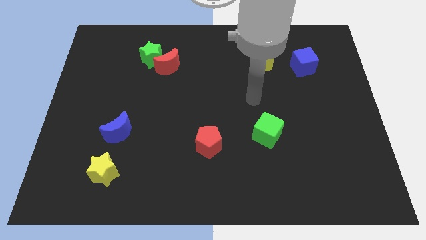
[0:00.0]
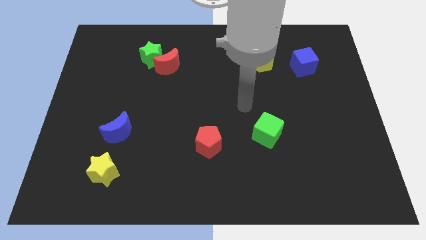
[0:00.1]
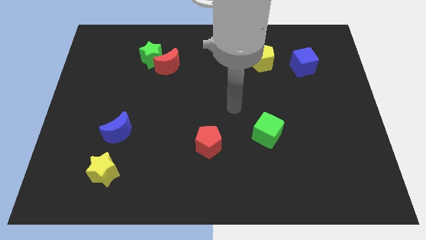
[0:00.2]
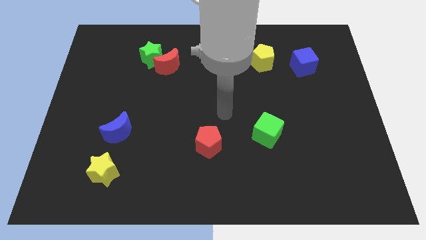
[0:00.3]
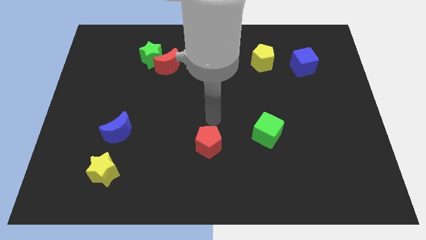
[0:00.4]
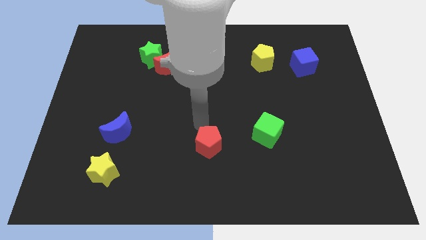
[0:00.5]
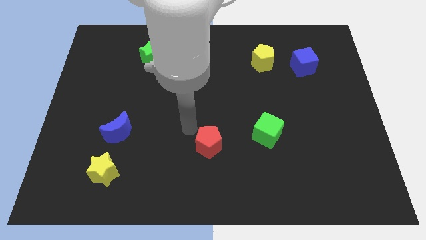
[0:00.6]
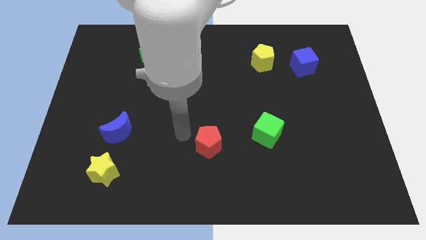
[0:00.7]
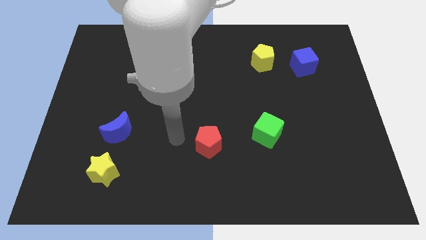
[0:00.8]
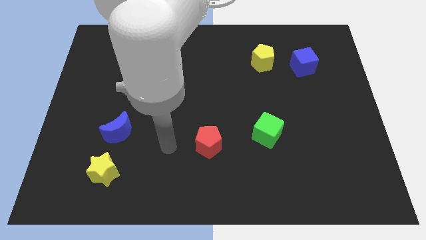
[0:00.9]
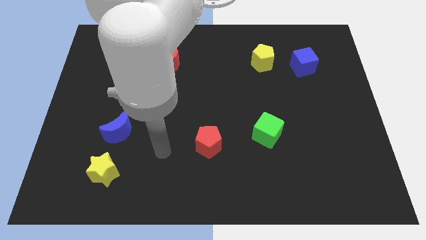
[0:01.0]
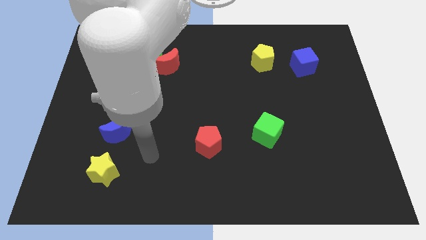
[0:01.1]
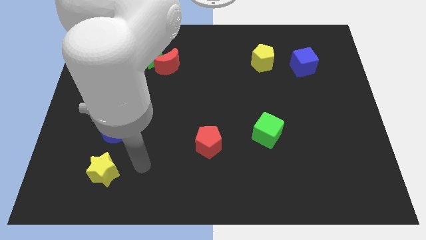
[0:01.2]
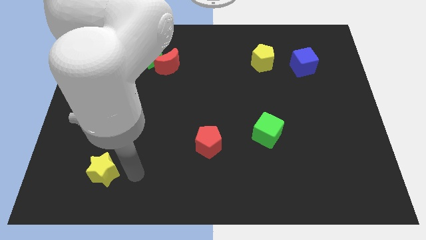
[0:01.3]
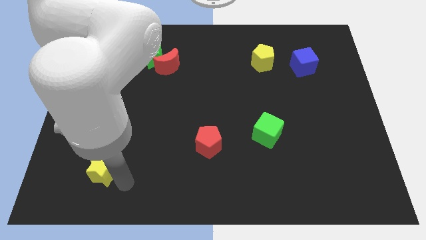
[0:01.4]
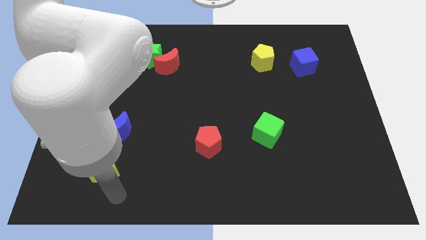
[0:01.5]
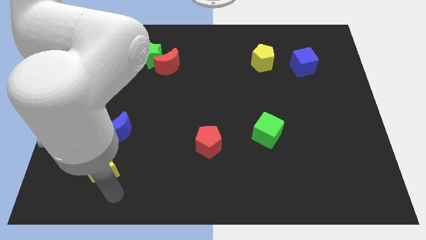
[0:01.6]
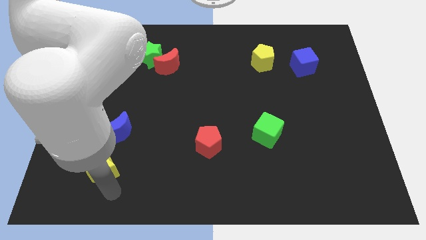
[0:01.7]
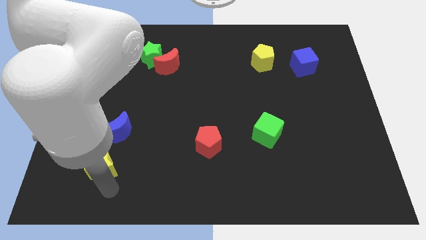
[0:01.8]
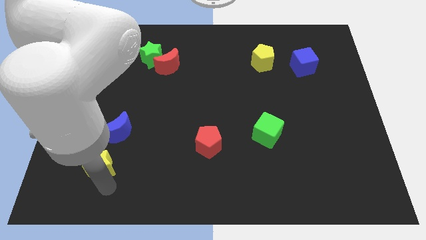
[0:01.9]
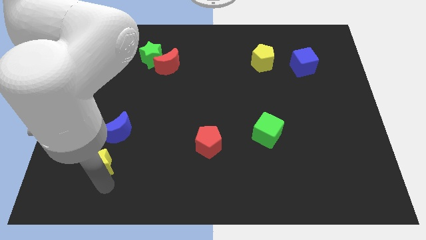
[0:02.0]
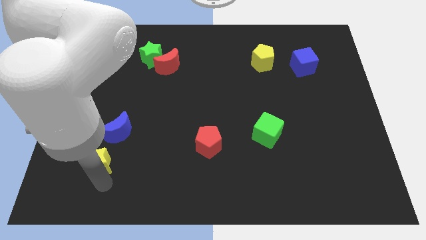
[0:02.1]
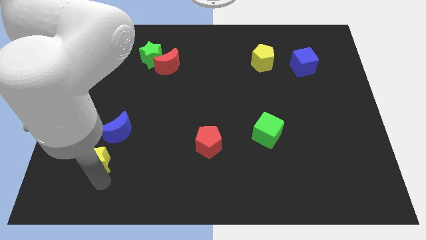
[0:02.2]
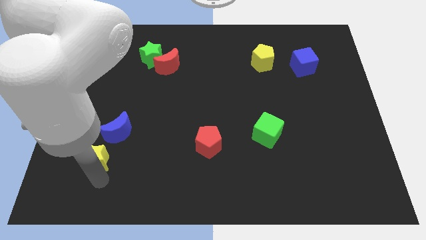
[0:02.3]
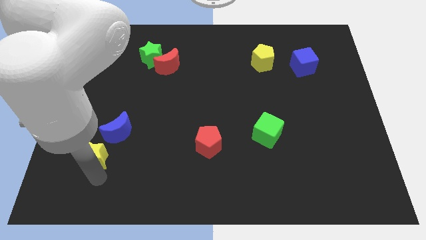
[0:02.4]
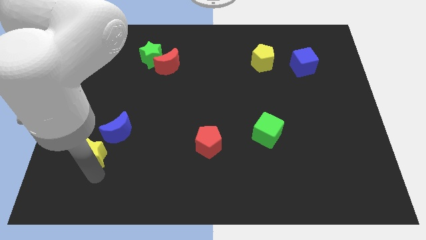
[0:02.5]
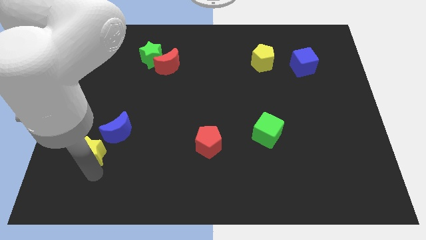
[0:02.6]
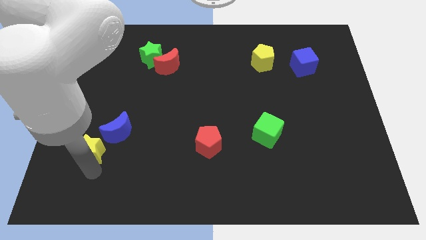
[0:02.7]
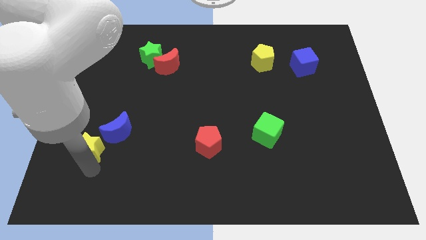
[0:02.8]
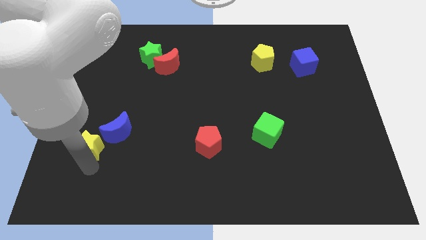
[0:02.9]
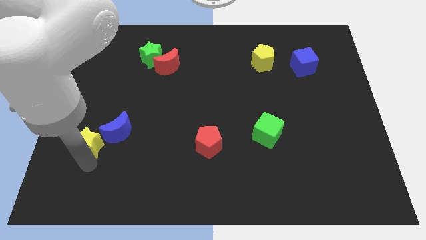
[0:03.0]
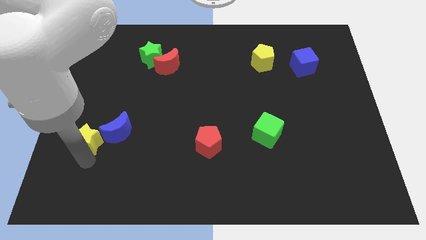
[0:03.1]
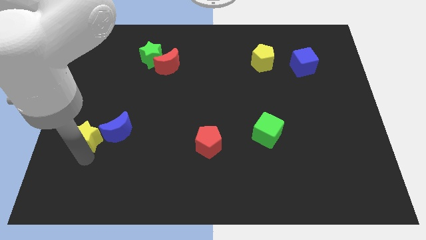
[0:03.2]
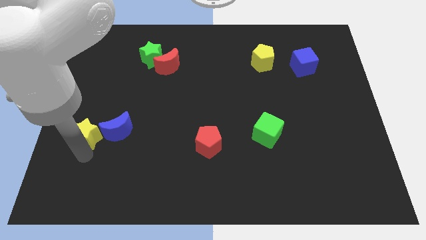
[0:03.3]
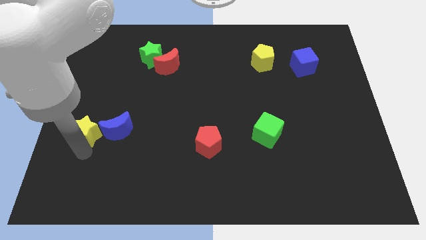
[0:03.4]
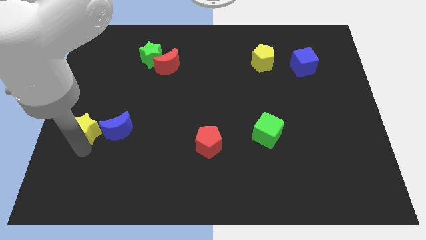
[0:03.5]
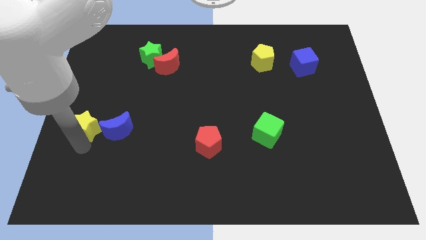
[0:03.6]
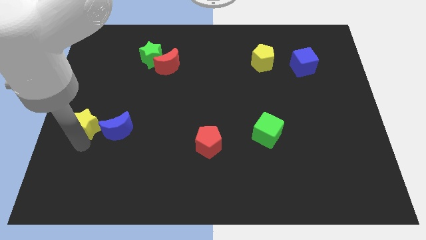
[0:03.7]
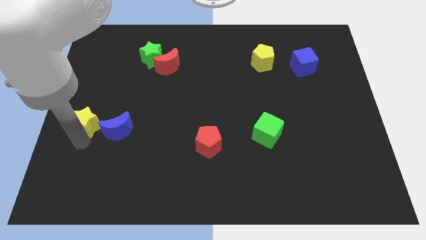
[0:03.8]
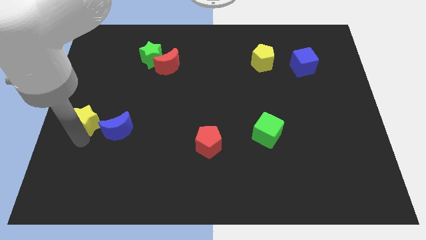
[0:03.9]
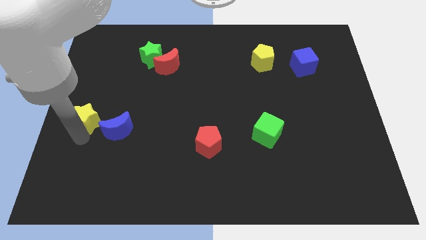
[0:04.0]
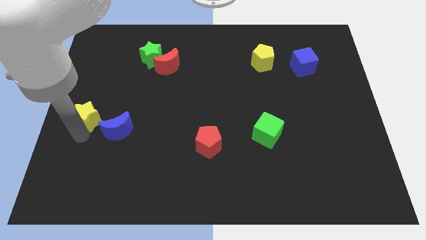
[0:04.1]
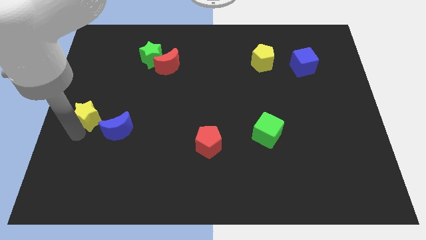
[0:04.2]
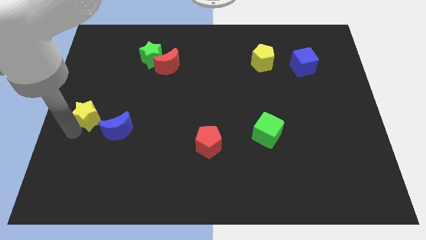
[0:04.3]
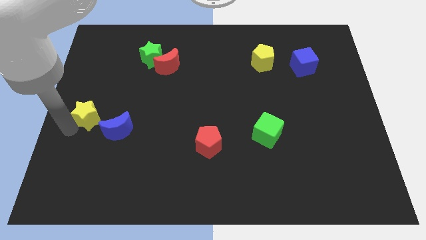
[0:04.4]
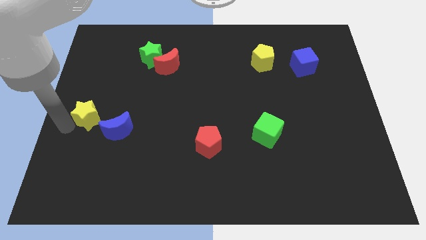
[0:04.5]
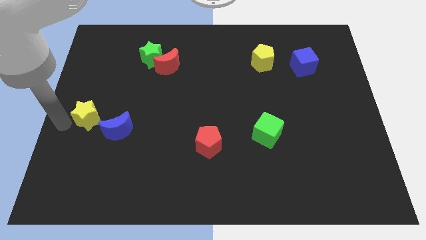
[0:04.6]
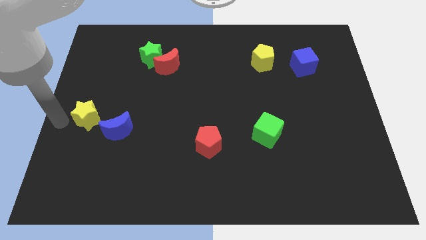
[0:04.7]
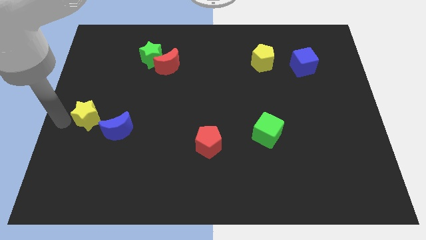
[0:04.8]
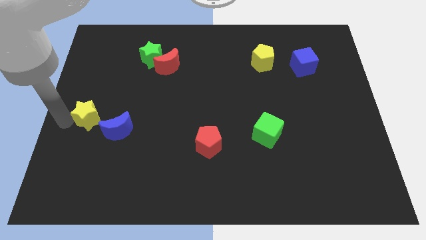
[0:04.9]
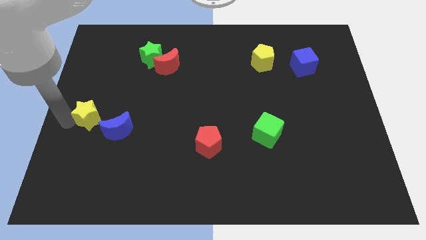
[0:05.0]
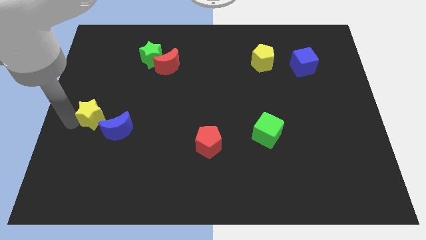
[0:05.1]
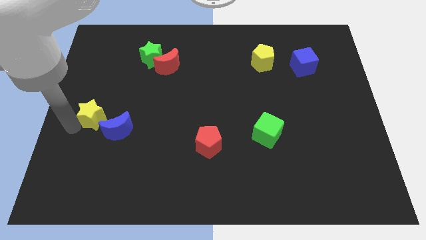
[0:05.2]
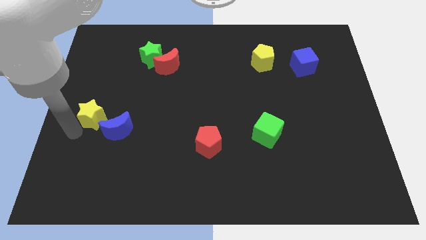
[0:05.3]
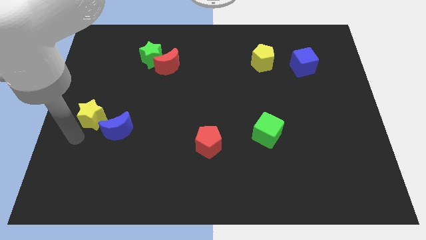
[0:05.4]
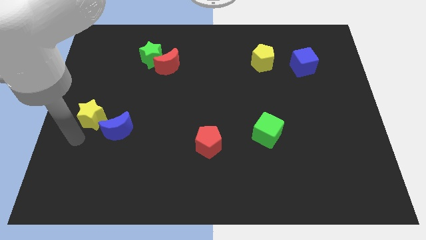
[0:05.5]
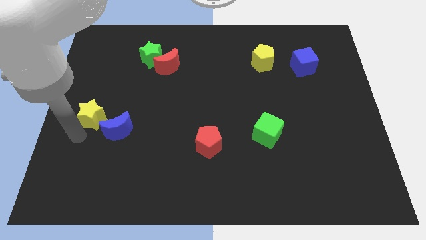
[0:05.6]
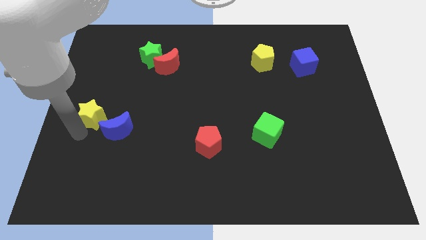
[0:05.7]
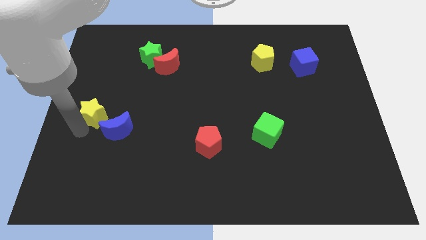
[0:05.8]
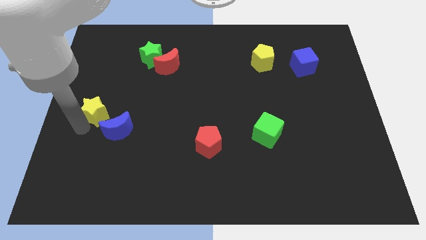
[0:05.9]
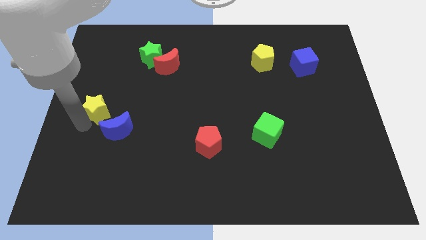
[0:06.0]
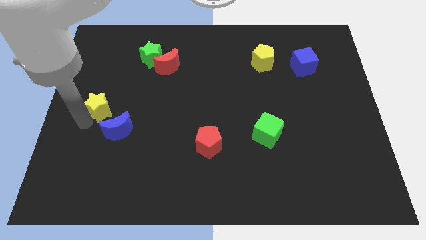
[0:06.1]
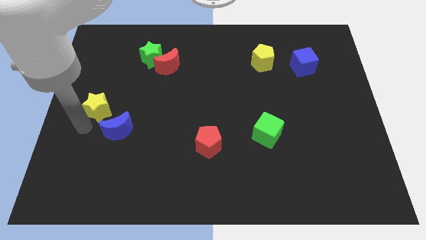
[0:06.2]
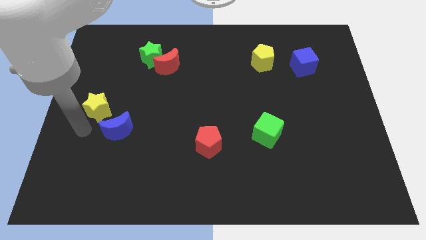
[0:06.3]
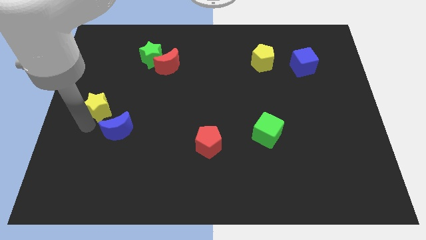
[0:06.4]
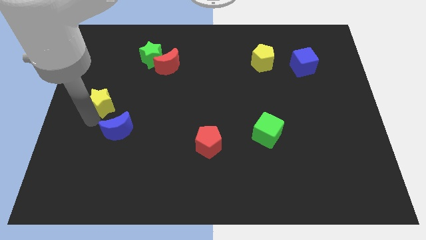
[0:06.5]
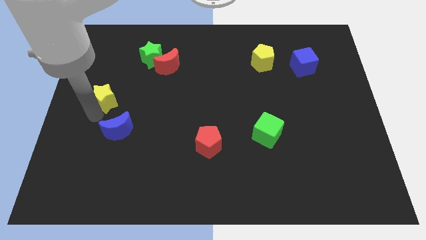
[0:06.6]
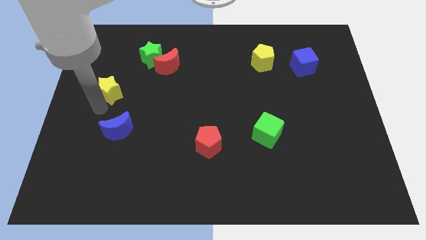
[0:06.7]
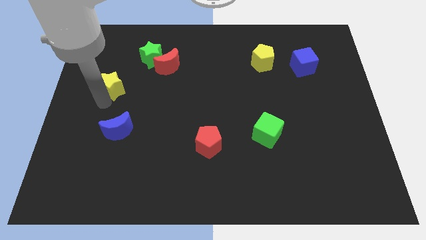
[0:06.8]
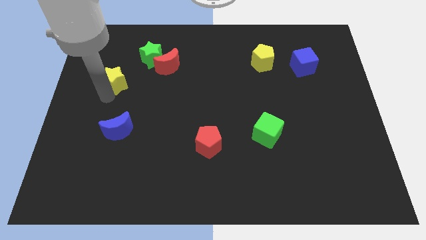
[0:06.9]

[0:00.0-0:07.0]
put the yellow star to the bottom left of the green star

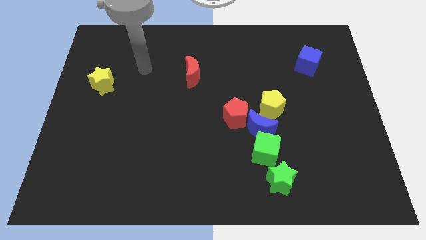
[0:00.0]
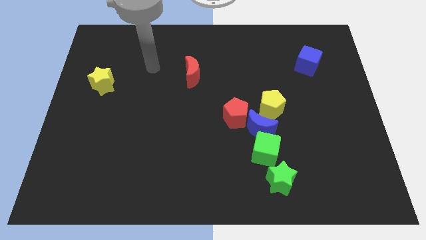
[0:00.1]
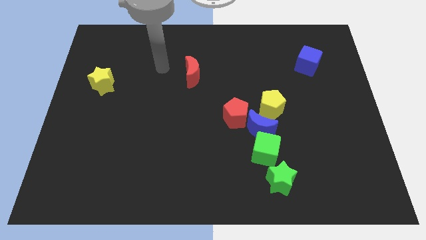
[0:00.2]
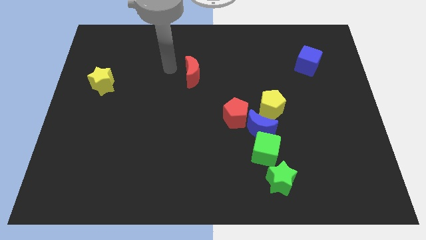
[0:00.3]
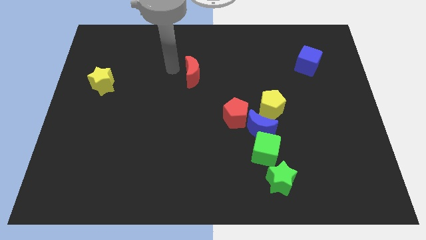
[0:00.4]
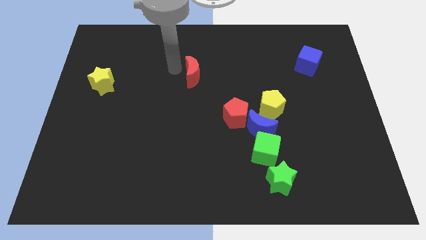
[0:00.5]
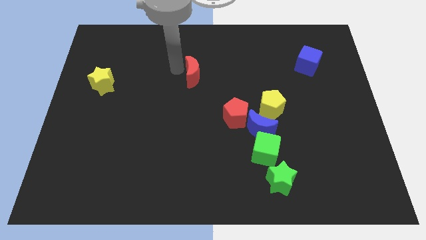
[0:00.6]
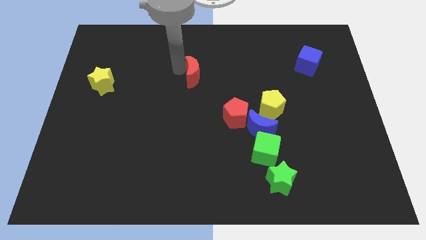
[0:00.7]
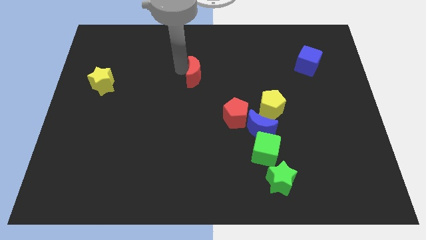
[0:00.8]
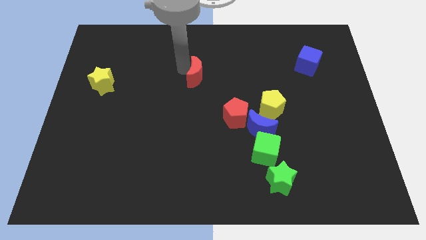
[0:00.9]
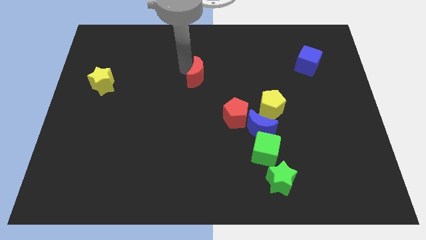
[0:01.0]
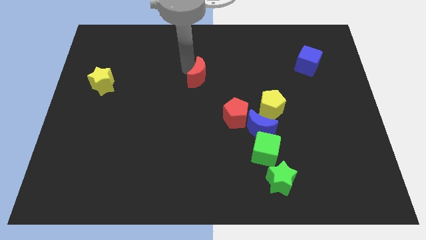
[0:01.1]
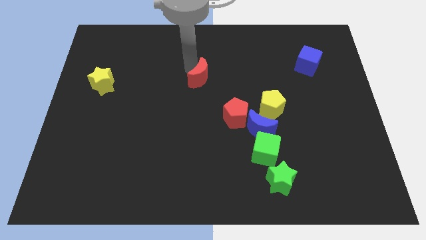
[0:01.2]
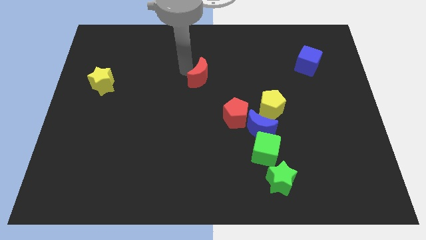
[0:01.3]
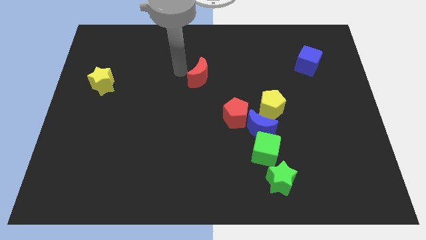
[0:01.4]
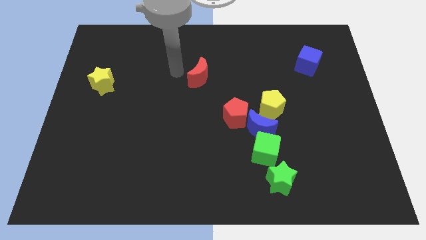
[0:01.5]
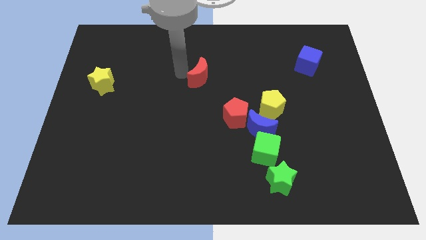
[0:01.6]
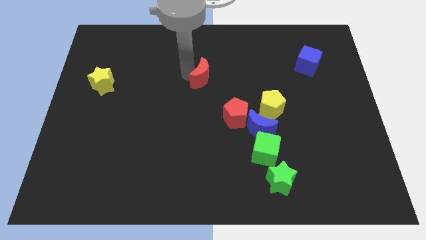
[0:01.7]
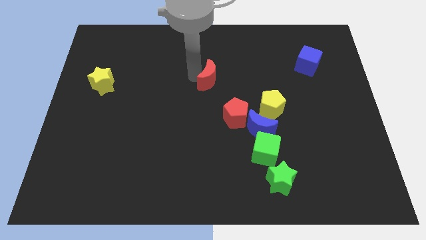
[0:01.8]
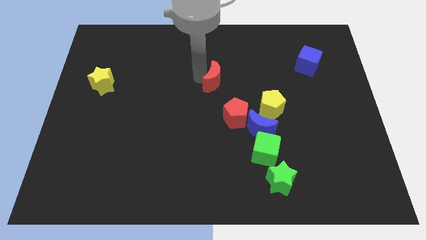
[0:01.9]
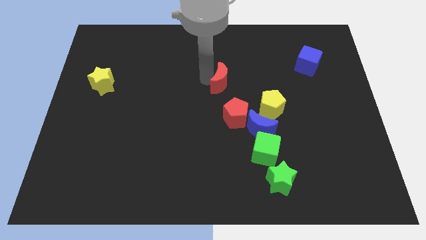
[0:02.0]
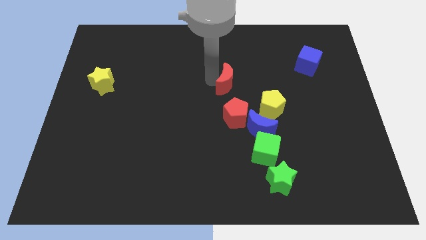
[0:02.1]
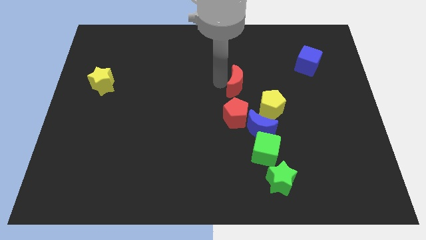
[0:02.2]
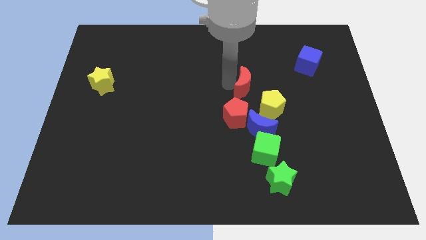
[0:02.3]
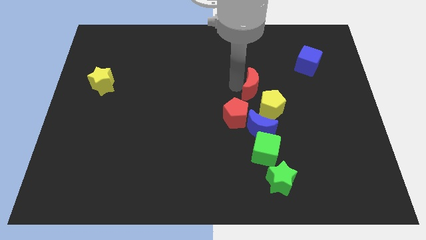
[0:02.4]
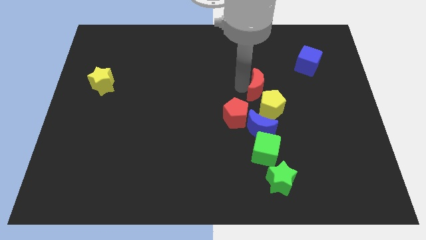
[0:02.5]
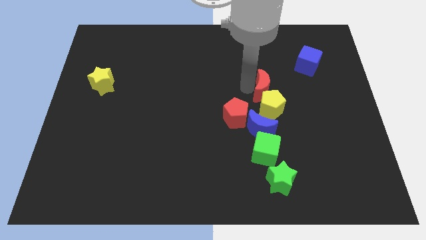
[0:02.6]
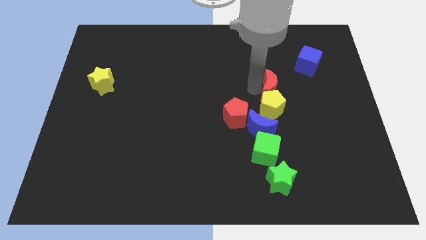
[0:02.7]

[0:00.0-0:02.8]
push the red moon diagonally up and to the right of the yellow pentagon
